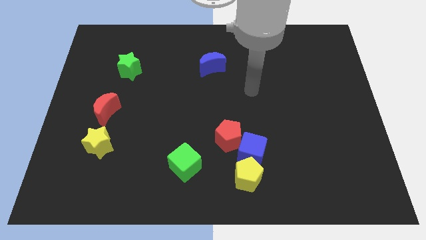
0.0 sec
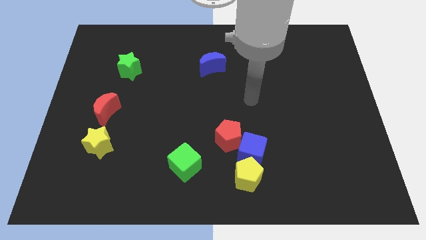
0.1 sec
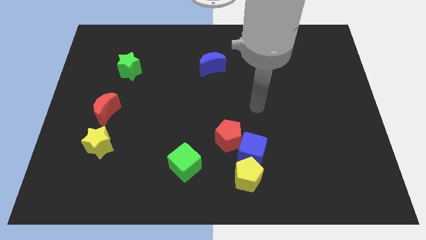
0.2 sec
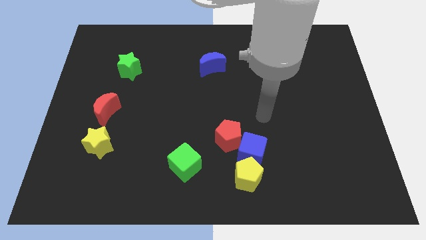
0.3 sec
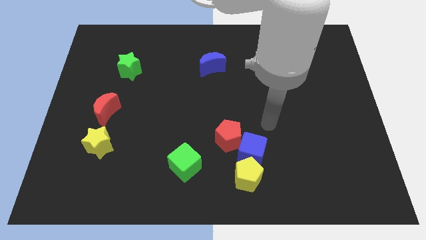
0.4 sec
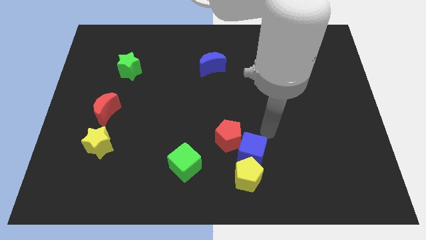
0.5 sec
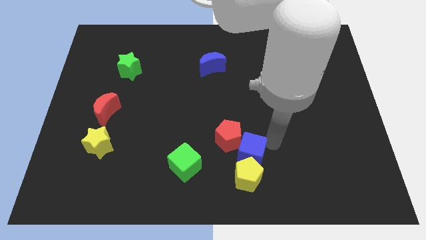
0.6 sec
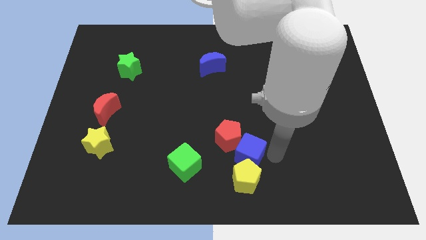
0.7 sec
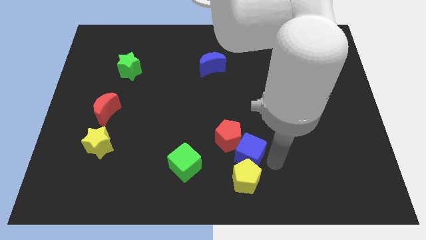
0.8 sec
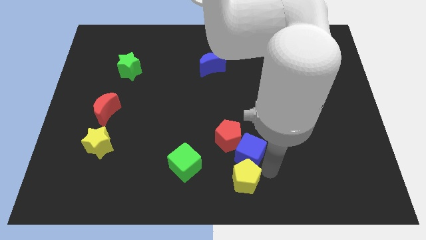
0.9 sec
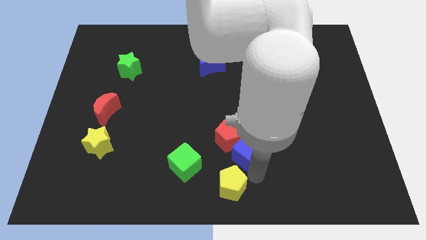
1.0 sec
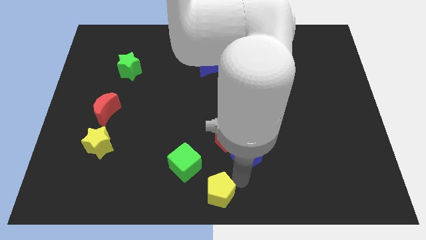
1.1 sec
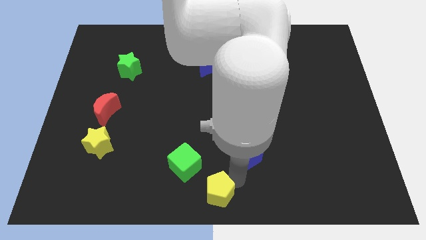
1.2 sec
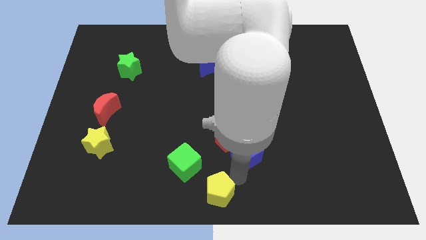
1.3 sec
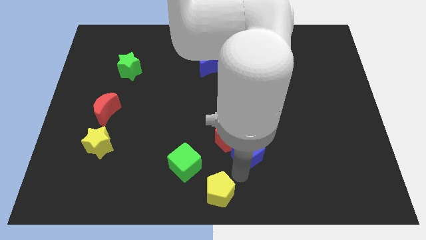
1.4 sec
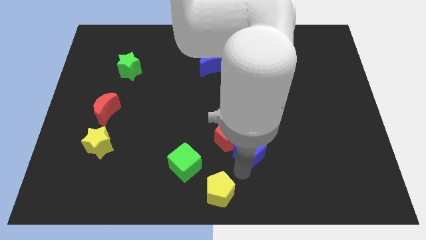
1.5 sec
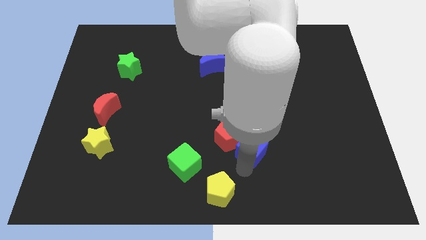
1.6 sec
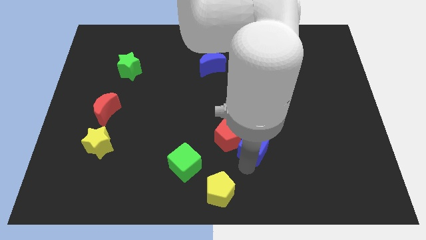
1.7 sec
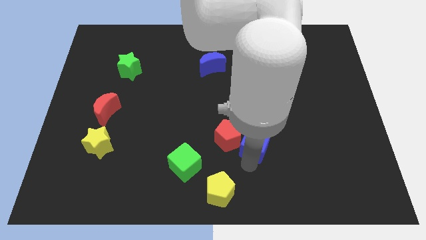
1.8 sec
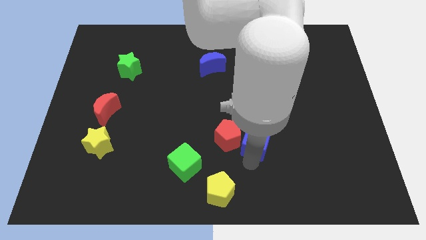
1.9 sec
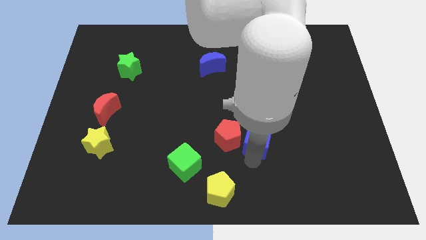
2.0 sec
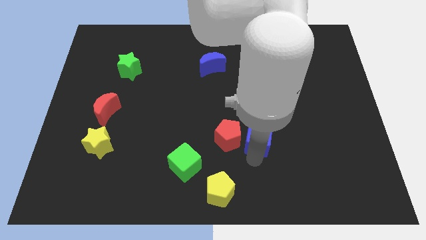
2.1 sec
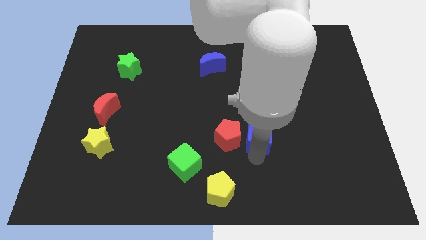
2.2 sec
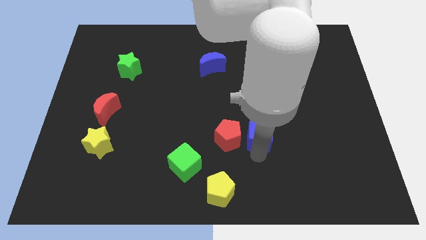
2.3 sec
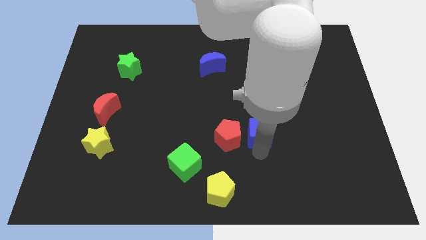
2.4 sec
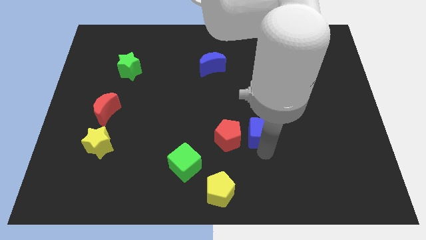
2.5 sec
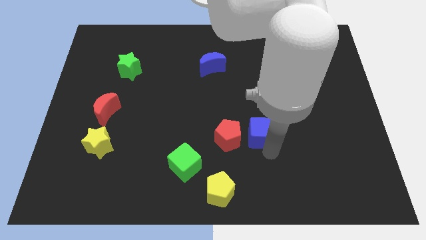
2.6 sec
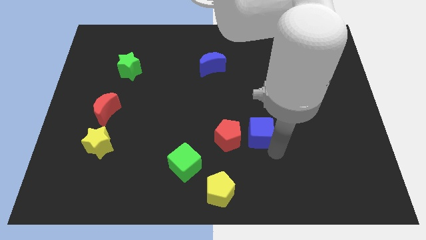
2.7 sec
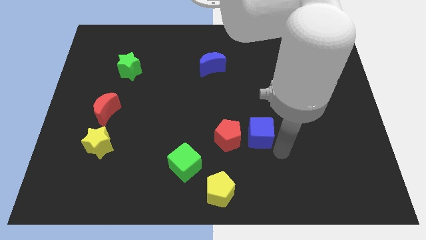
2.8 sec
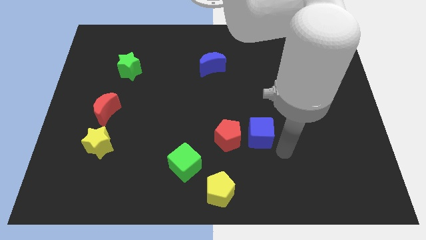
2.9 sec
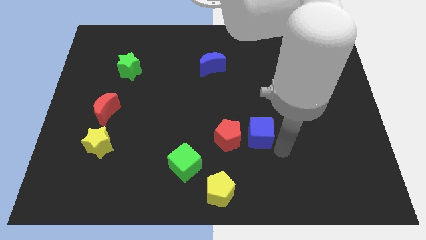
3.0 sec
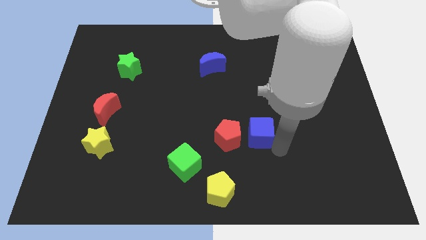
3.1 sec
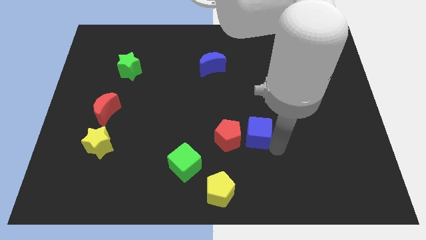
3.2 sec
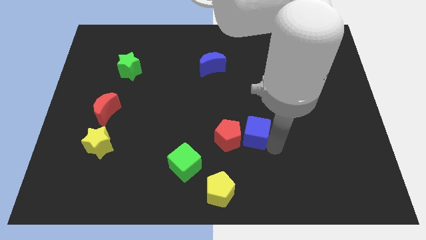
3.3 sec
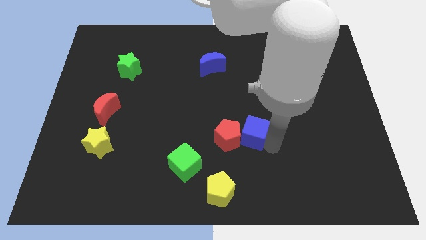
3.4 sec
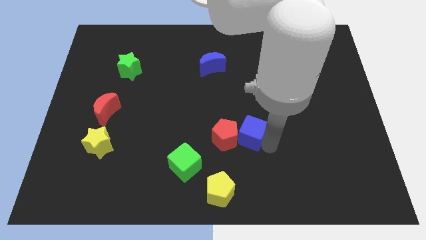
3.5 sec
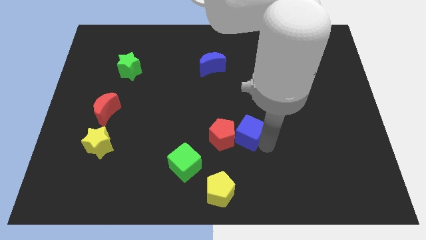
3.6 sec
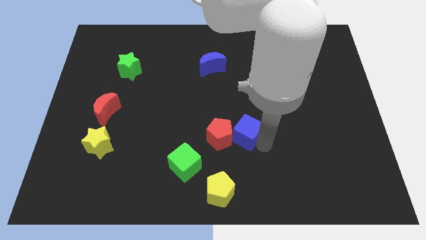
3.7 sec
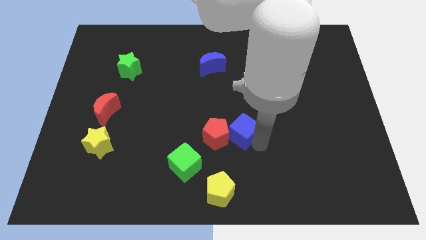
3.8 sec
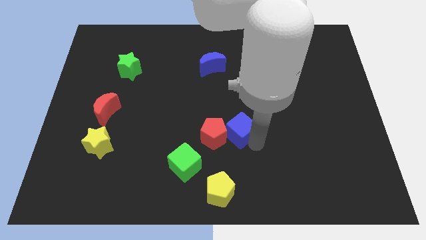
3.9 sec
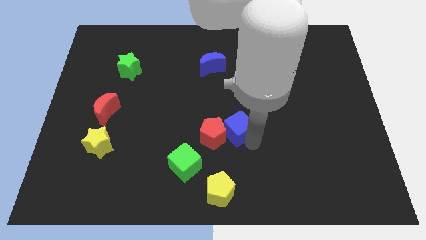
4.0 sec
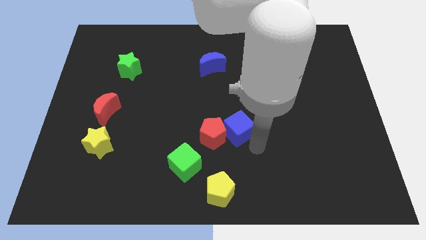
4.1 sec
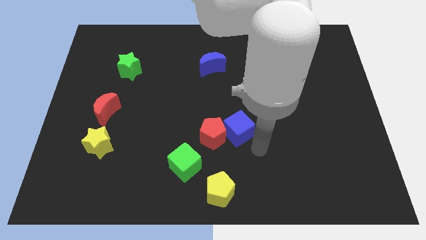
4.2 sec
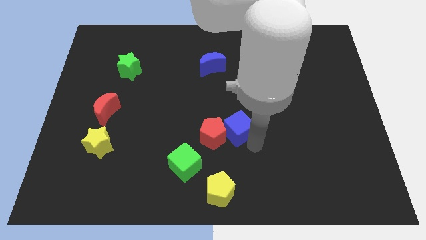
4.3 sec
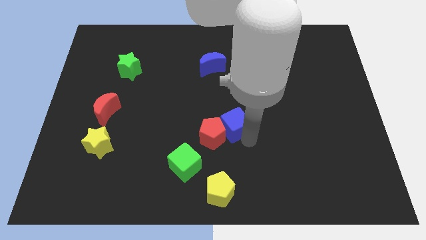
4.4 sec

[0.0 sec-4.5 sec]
move the blue cube slightly diagonally up and to the left

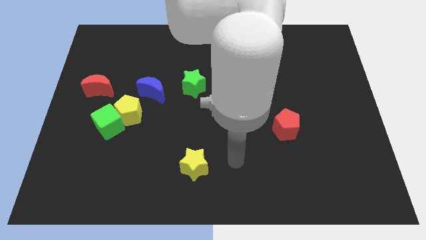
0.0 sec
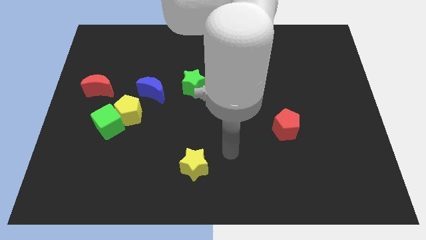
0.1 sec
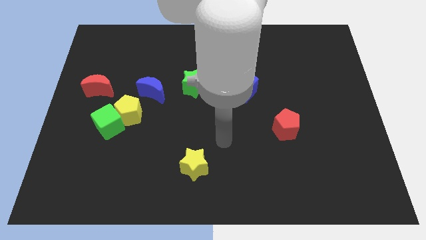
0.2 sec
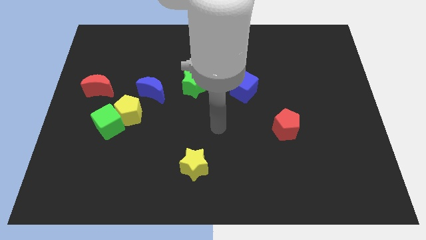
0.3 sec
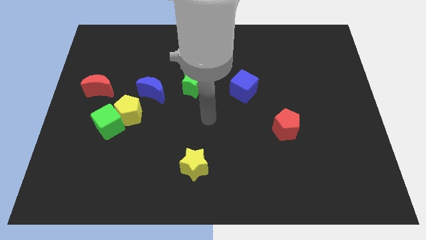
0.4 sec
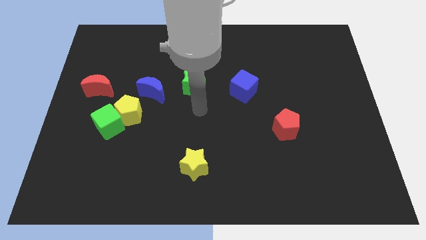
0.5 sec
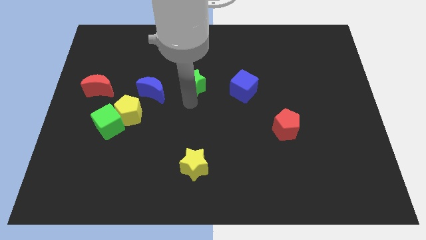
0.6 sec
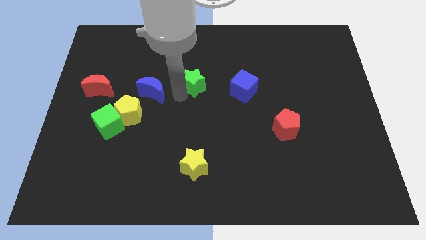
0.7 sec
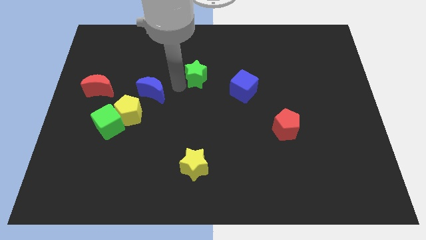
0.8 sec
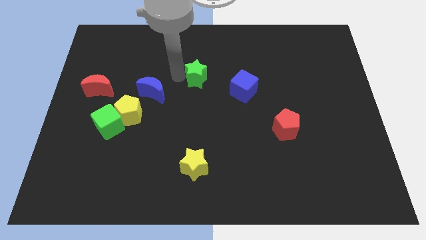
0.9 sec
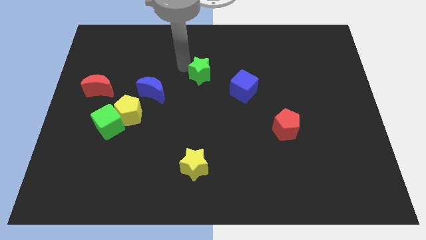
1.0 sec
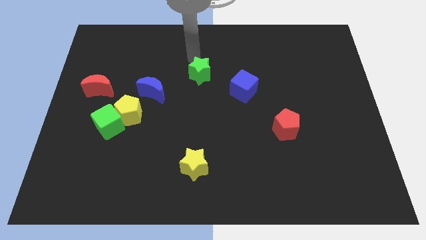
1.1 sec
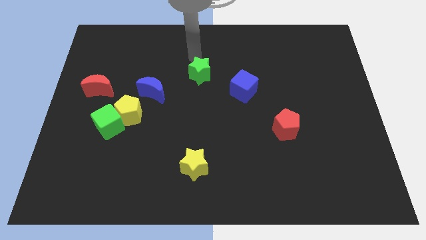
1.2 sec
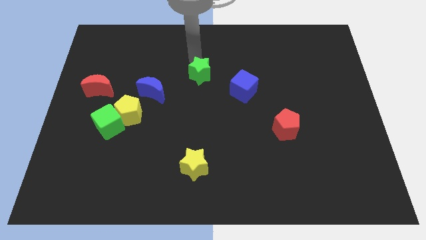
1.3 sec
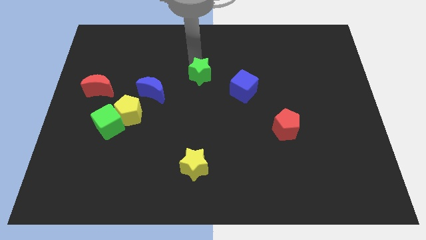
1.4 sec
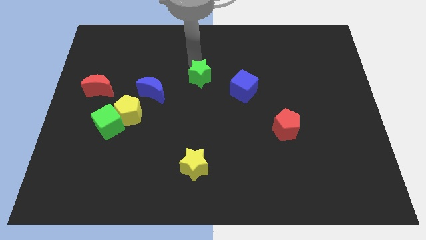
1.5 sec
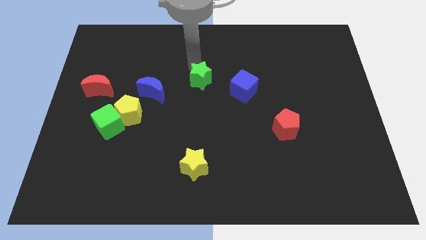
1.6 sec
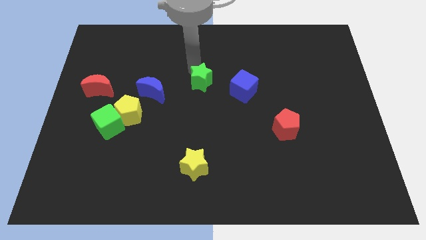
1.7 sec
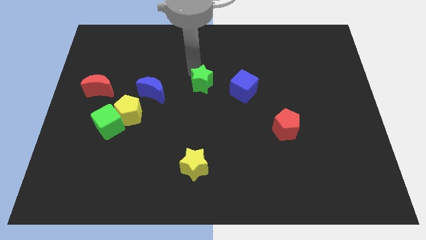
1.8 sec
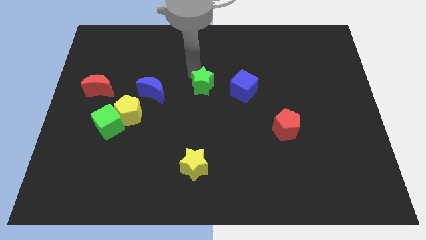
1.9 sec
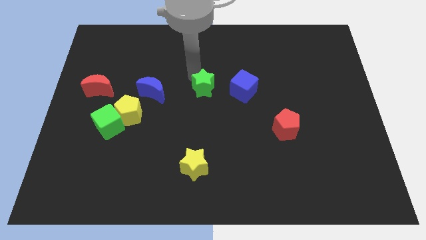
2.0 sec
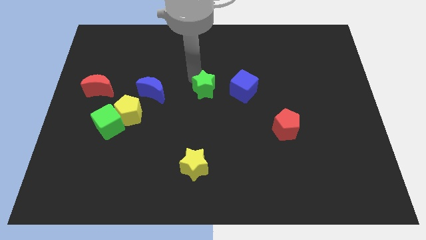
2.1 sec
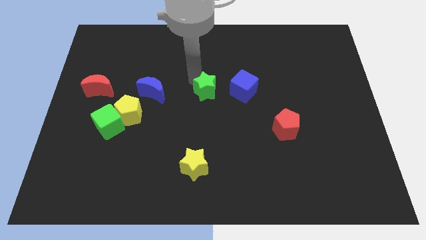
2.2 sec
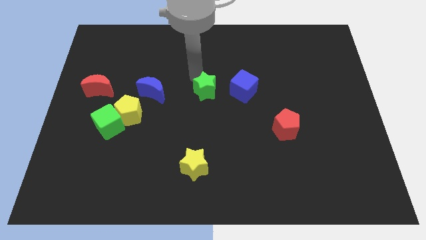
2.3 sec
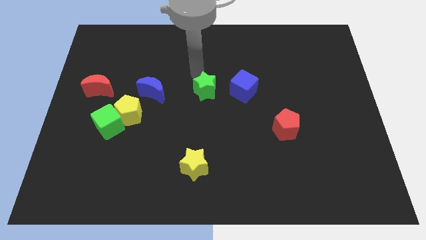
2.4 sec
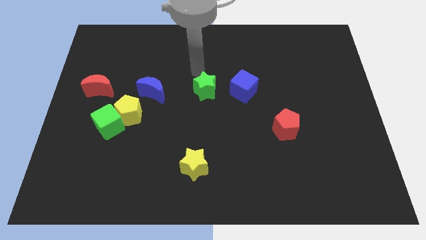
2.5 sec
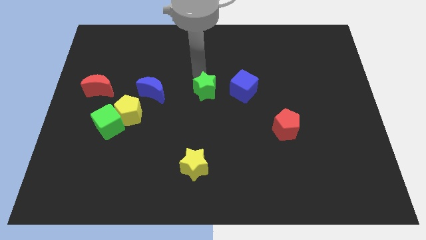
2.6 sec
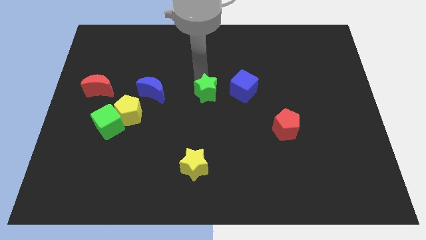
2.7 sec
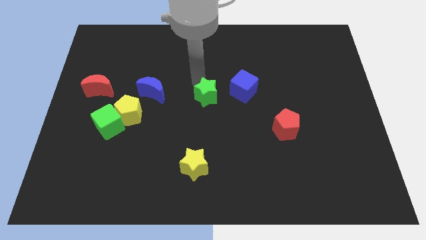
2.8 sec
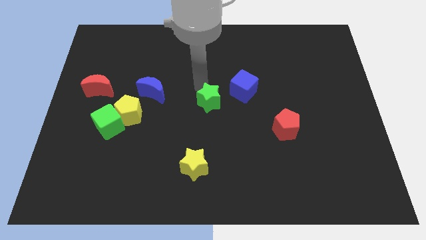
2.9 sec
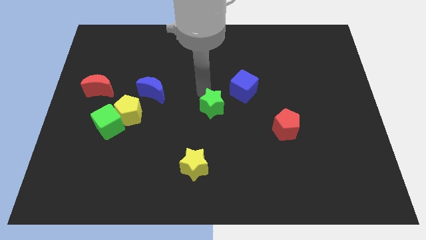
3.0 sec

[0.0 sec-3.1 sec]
push the green star down and to the right diagonally somewhat

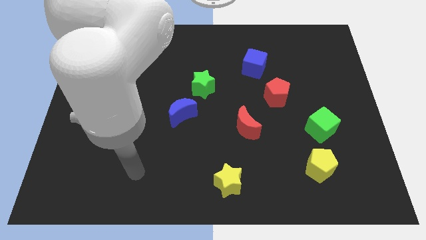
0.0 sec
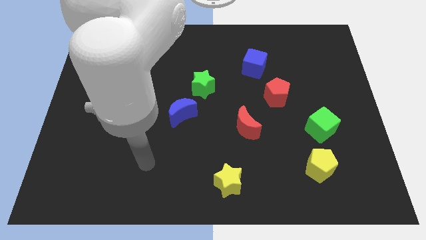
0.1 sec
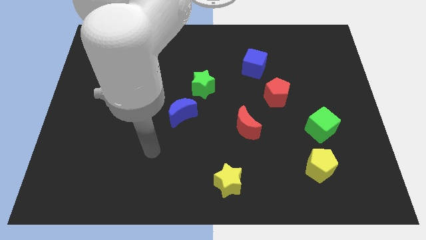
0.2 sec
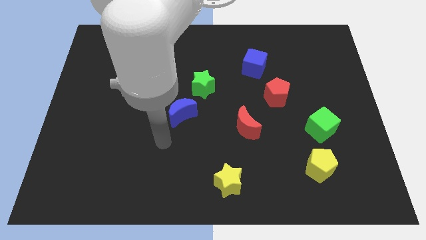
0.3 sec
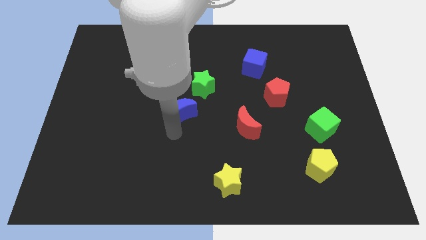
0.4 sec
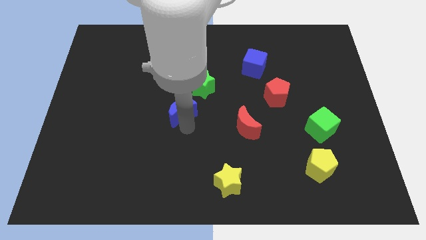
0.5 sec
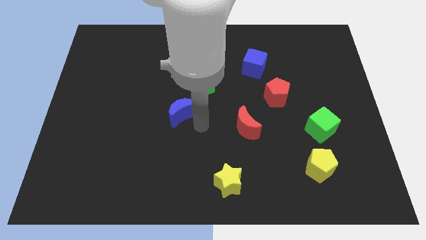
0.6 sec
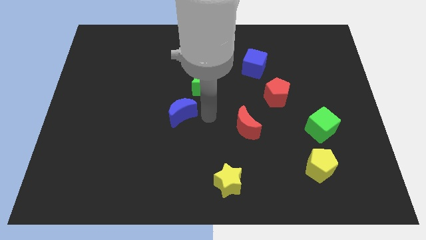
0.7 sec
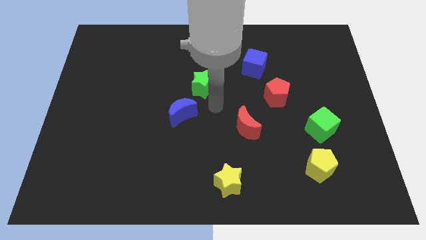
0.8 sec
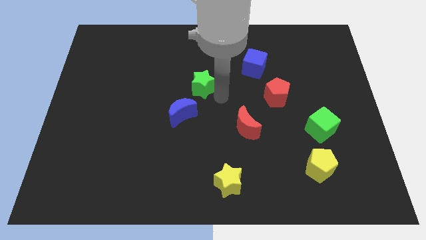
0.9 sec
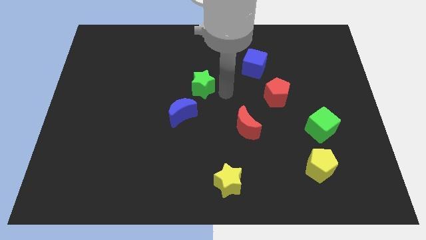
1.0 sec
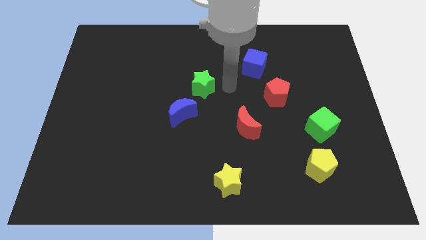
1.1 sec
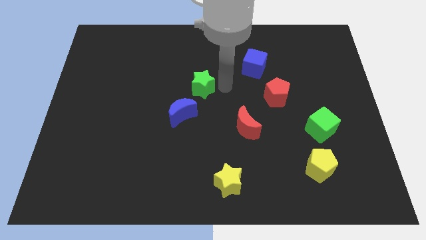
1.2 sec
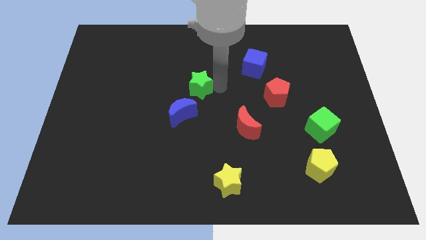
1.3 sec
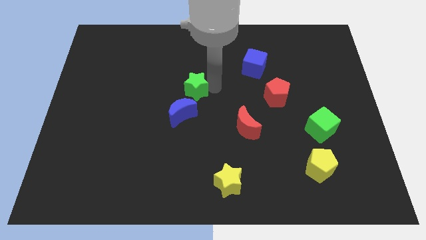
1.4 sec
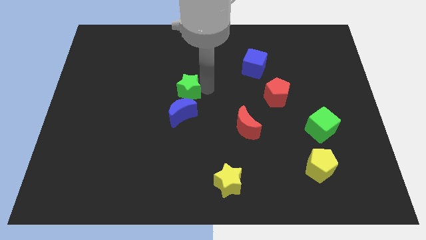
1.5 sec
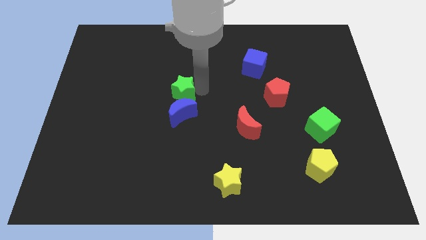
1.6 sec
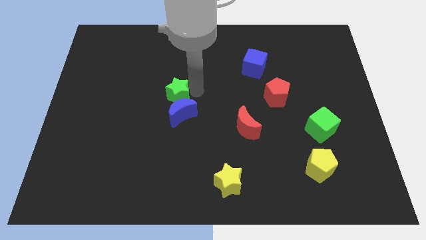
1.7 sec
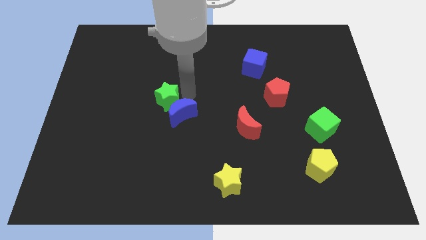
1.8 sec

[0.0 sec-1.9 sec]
push the green star to the left a little bit
